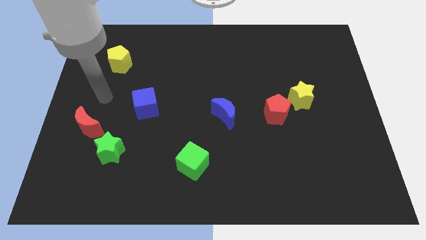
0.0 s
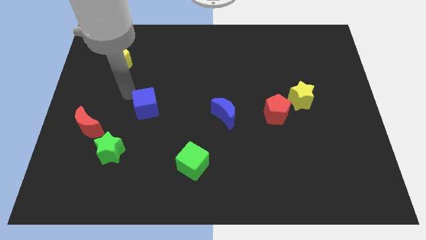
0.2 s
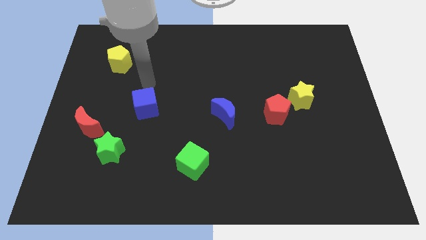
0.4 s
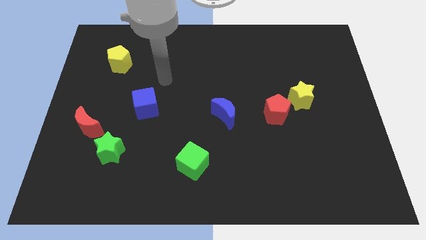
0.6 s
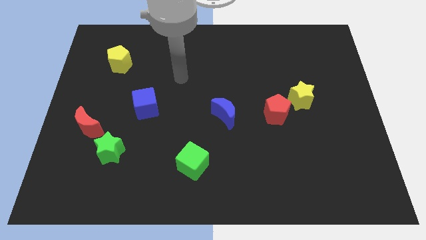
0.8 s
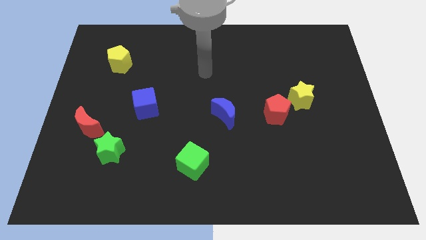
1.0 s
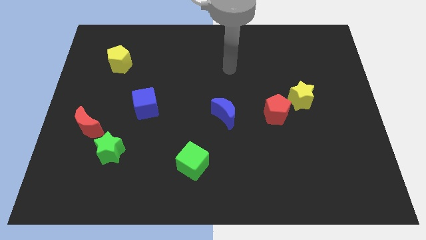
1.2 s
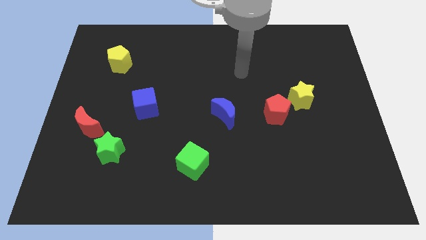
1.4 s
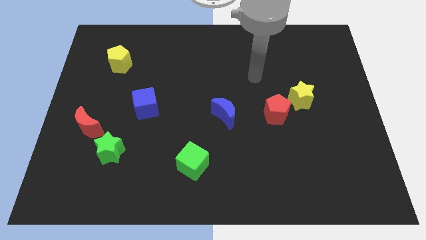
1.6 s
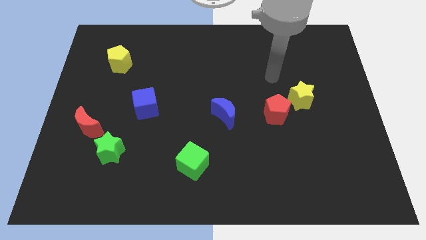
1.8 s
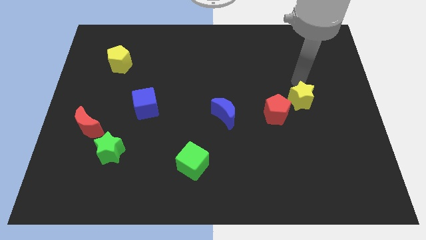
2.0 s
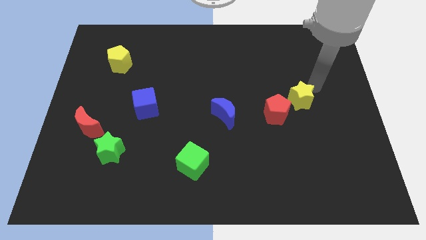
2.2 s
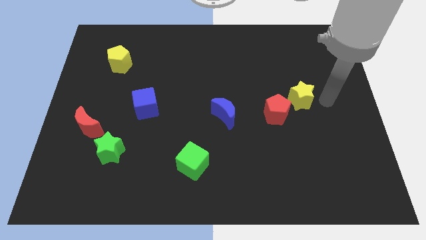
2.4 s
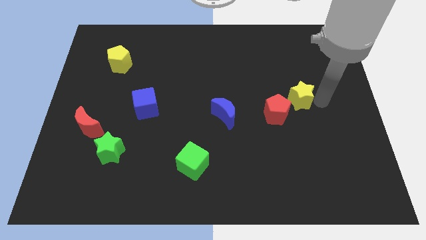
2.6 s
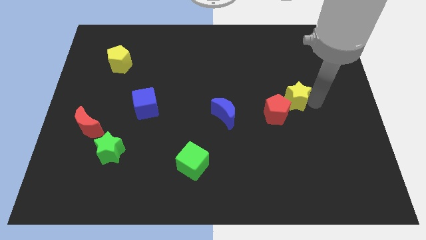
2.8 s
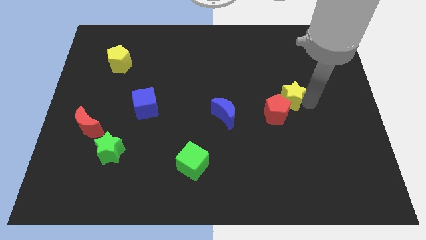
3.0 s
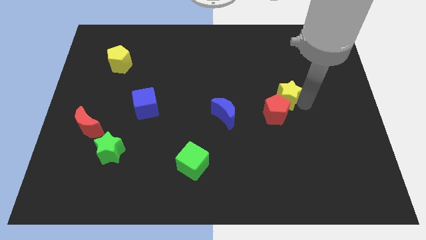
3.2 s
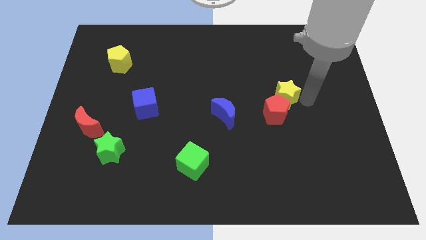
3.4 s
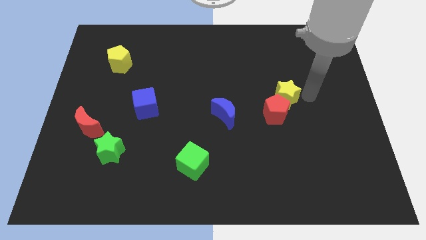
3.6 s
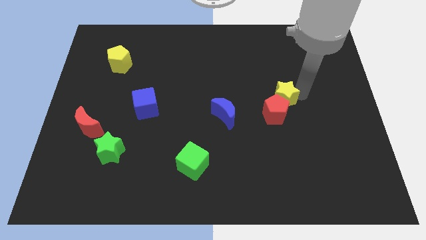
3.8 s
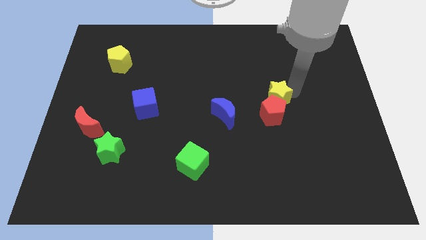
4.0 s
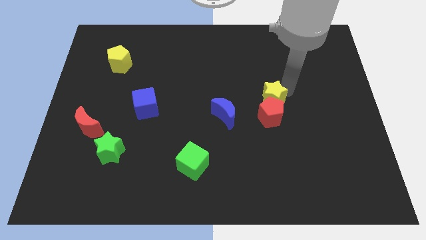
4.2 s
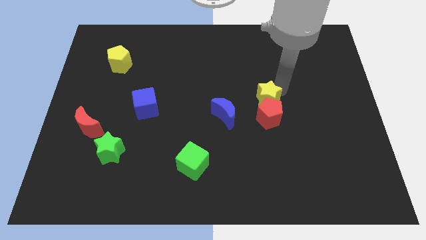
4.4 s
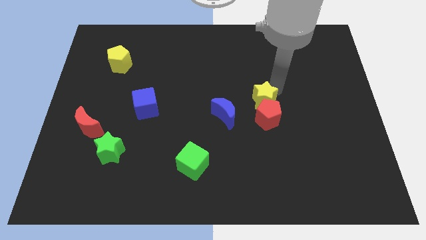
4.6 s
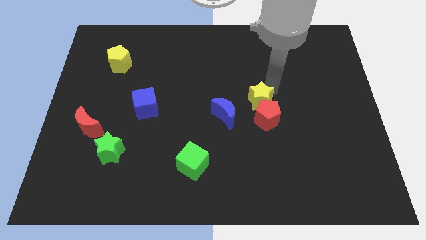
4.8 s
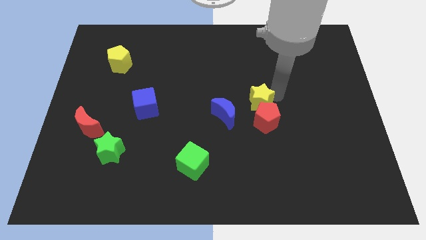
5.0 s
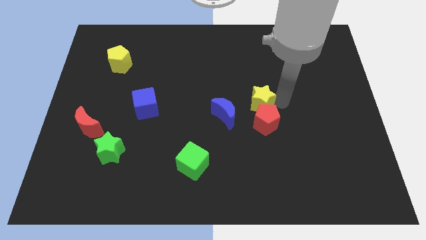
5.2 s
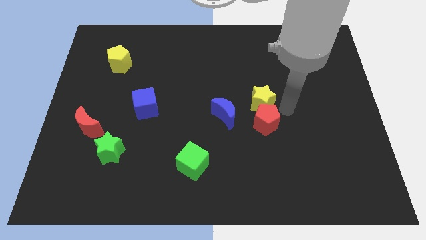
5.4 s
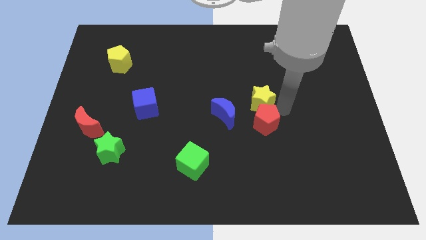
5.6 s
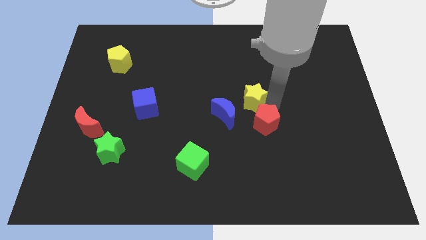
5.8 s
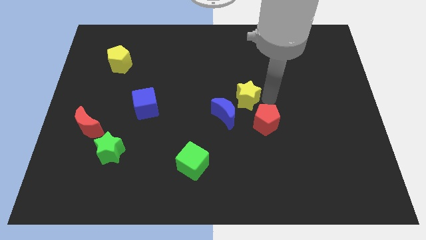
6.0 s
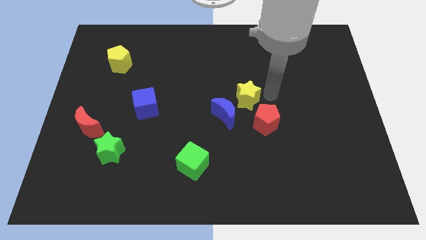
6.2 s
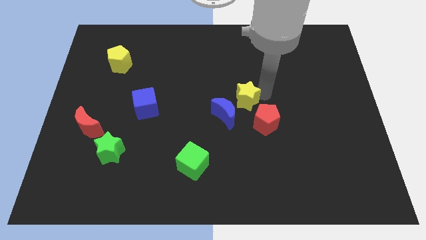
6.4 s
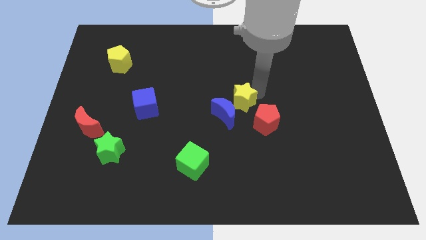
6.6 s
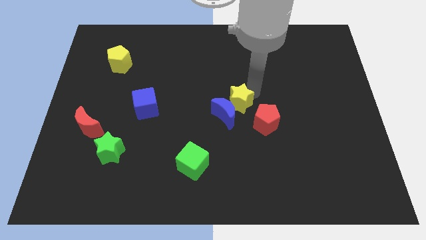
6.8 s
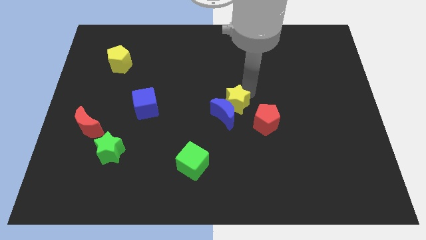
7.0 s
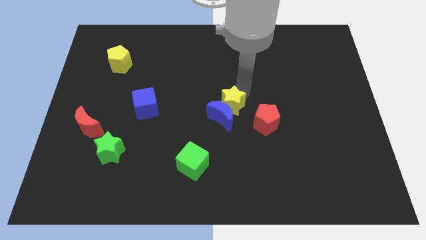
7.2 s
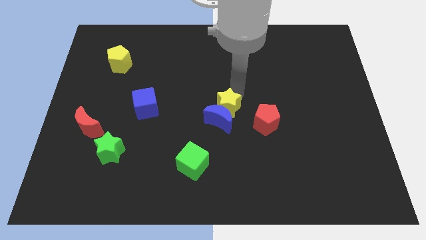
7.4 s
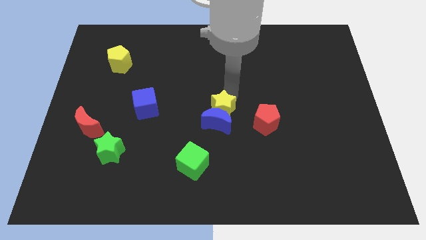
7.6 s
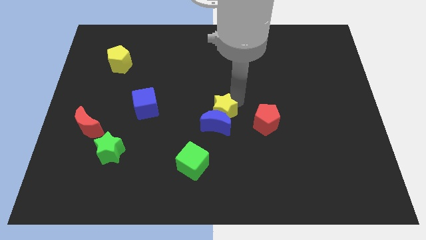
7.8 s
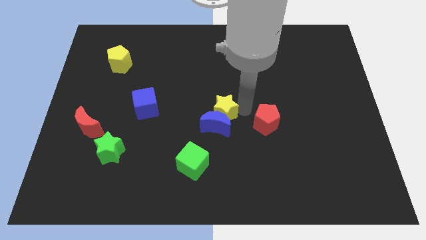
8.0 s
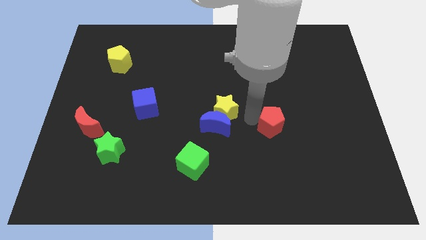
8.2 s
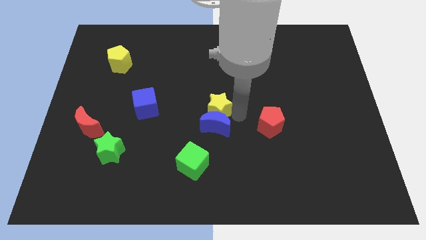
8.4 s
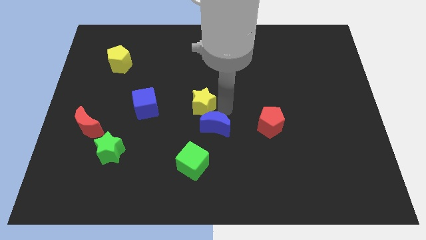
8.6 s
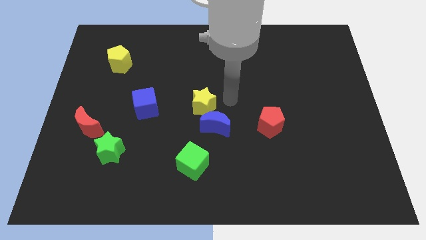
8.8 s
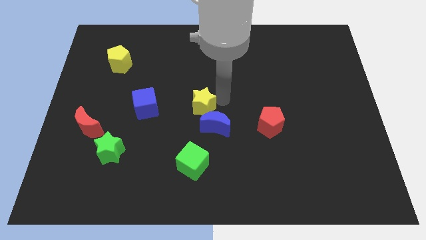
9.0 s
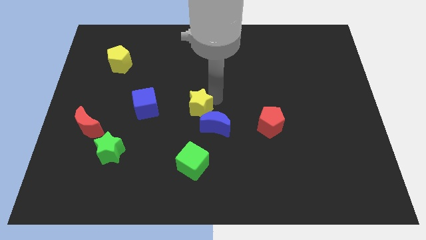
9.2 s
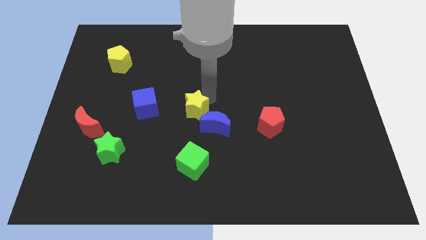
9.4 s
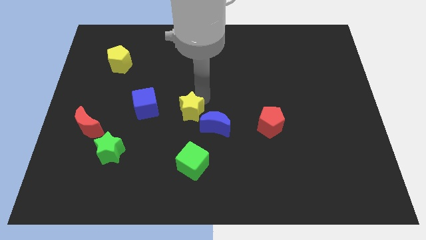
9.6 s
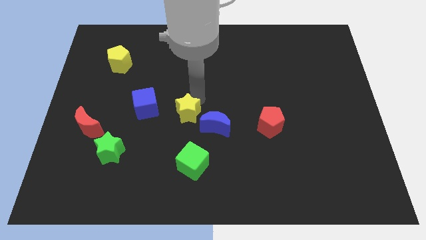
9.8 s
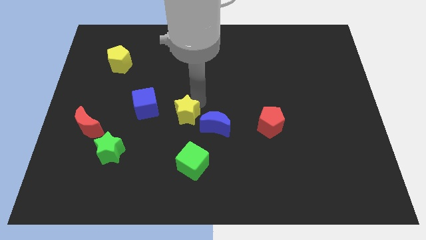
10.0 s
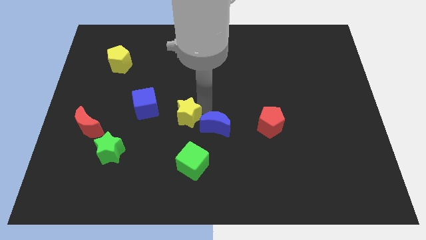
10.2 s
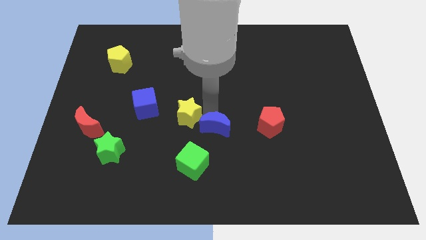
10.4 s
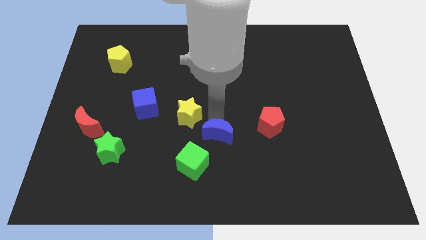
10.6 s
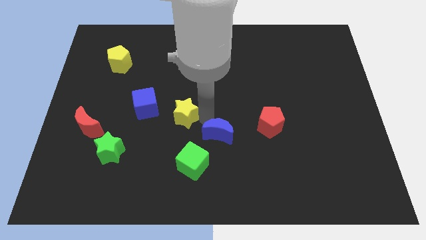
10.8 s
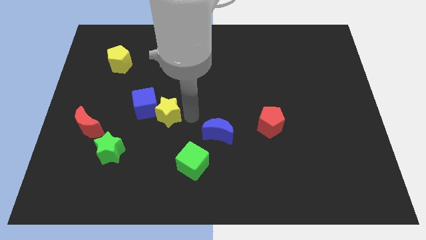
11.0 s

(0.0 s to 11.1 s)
put the yellow star next to the blue cube

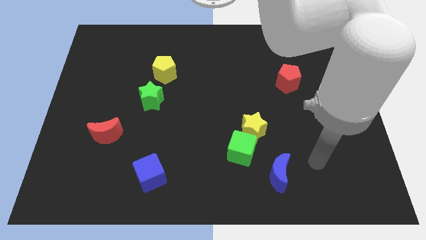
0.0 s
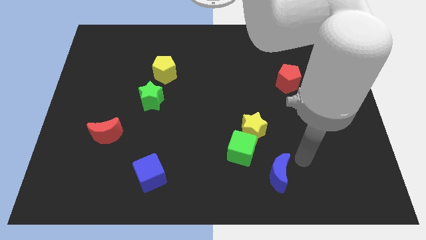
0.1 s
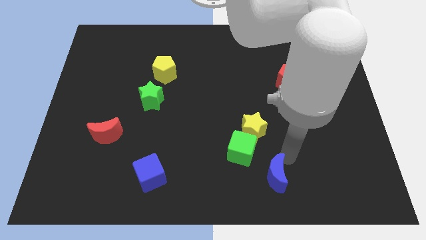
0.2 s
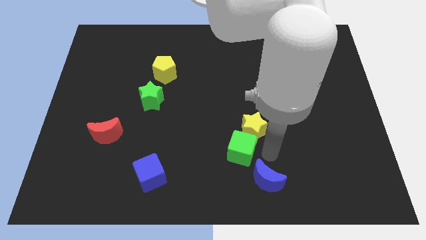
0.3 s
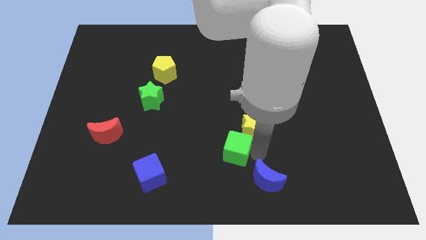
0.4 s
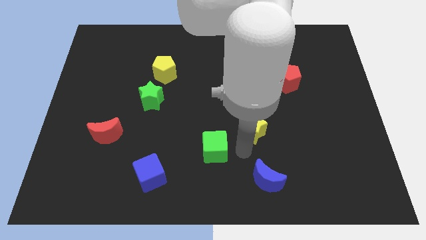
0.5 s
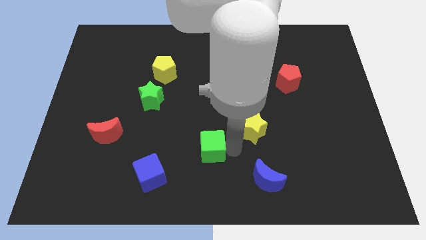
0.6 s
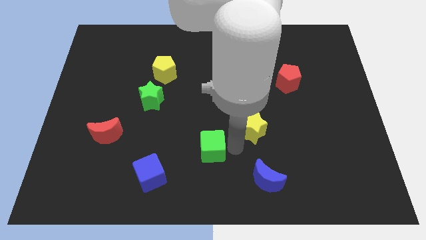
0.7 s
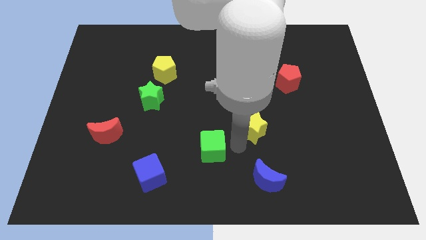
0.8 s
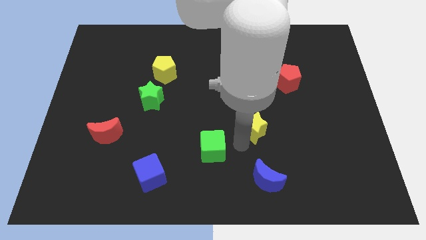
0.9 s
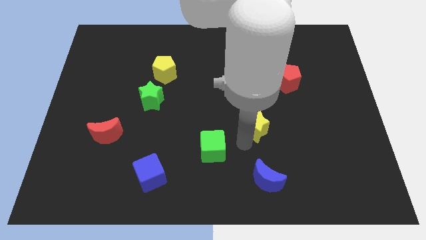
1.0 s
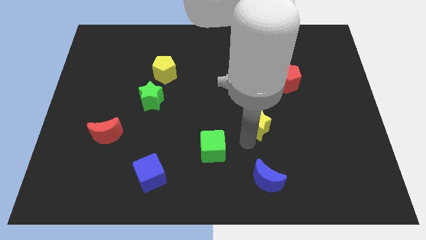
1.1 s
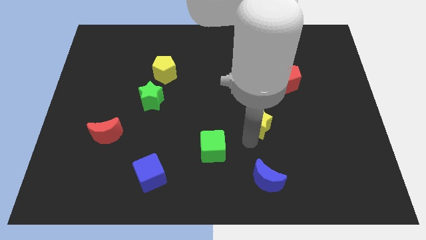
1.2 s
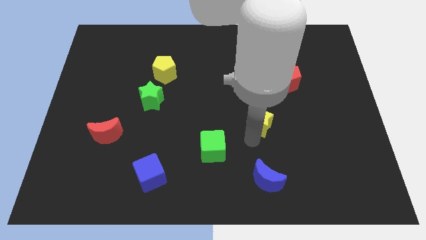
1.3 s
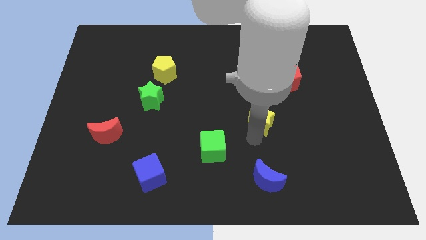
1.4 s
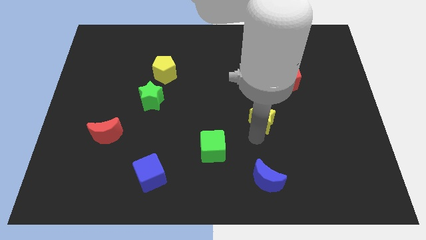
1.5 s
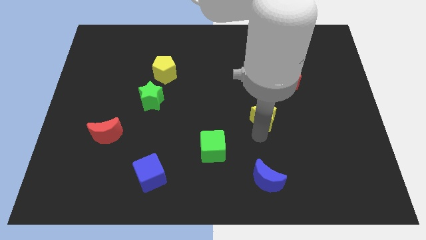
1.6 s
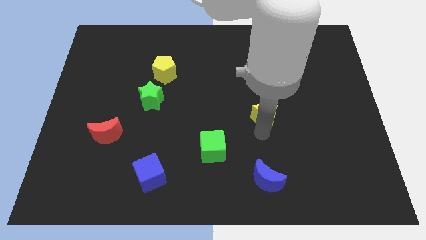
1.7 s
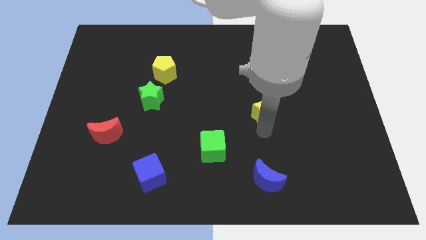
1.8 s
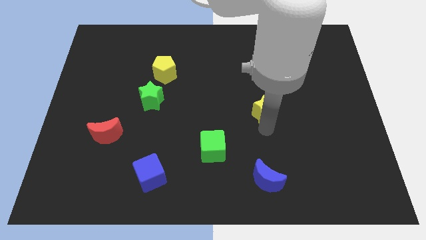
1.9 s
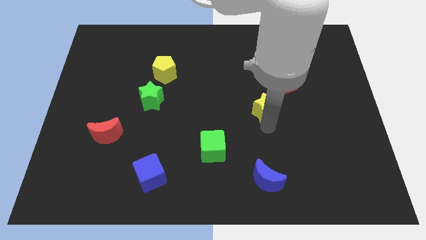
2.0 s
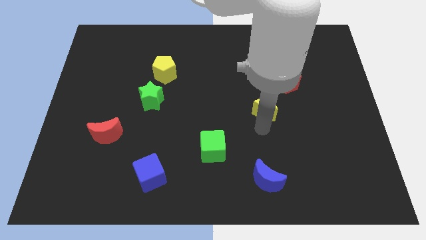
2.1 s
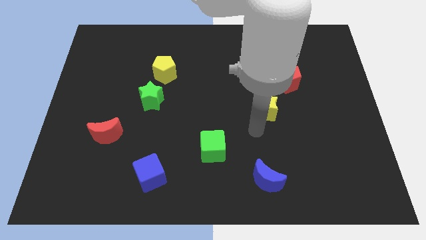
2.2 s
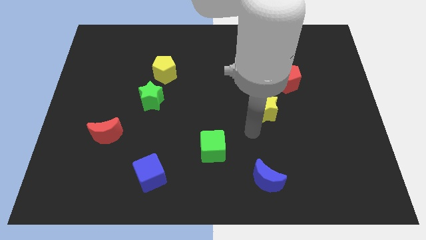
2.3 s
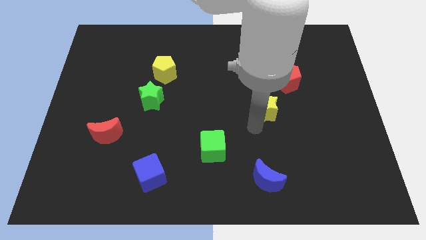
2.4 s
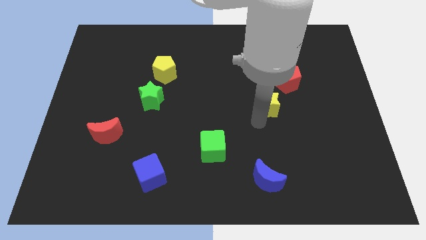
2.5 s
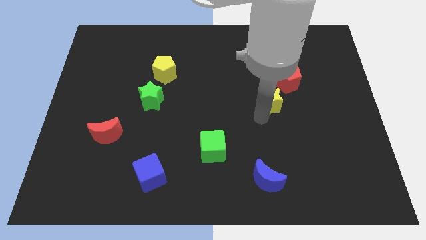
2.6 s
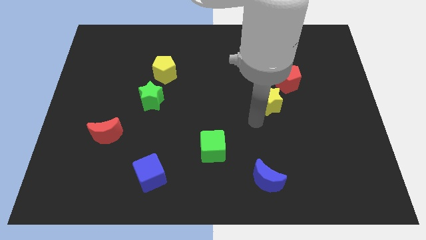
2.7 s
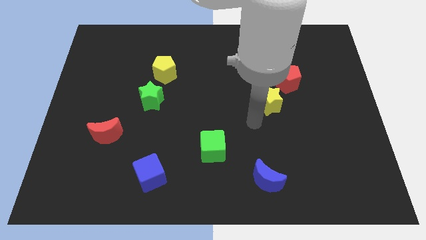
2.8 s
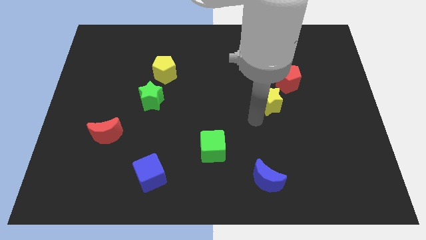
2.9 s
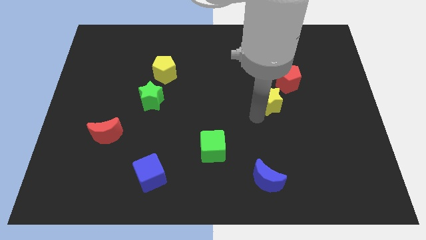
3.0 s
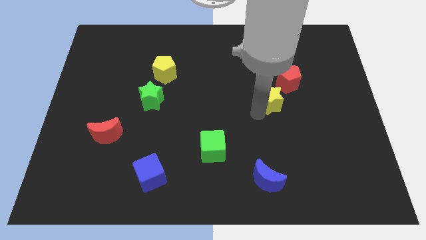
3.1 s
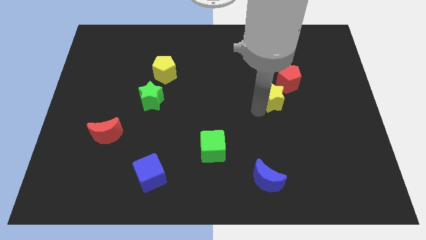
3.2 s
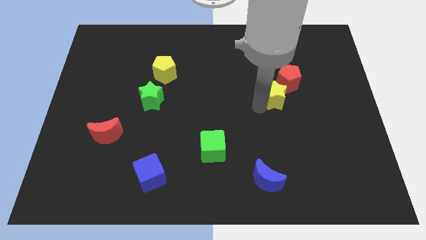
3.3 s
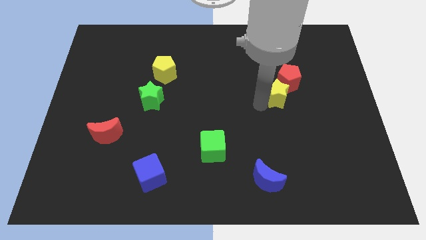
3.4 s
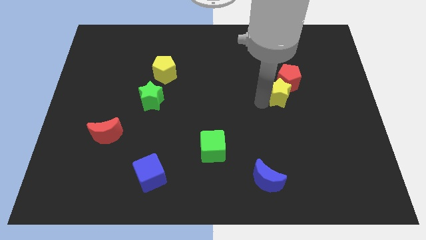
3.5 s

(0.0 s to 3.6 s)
move the yellow star towards the red pentagon
